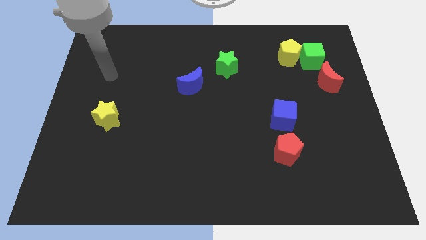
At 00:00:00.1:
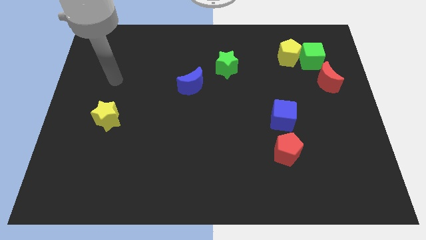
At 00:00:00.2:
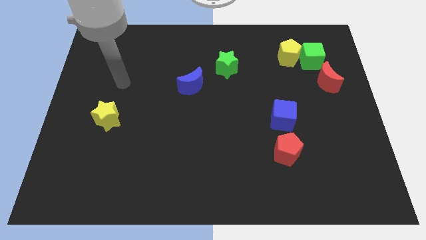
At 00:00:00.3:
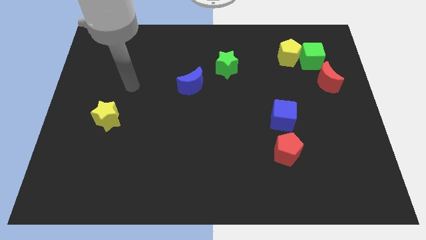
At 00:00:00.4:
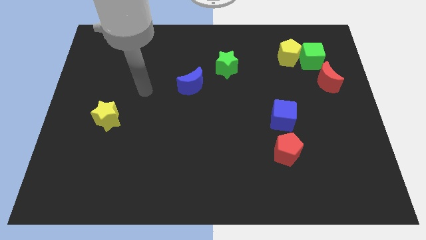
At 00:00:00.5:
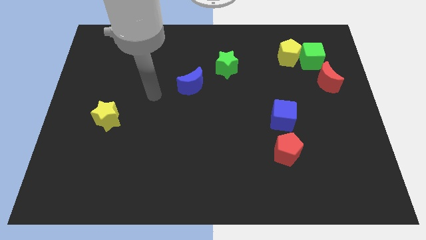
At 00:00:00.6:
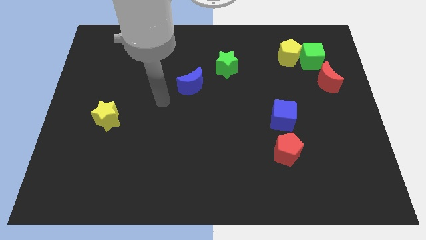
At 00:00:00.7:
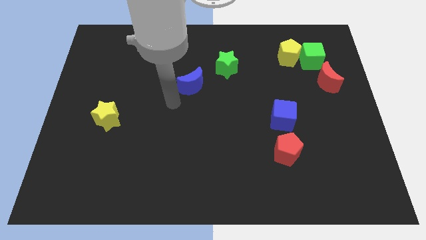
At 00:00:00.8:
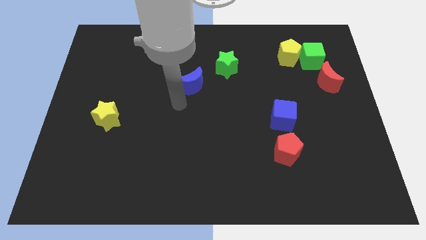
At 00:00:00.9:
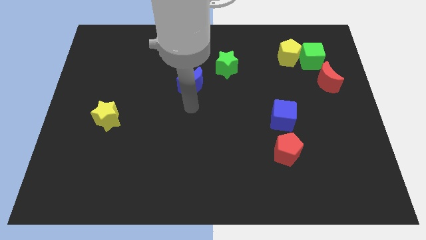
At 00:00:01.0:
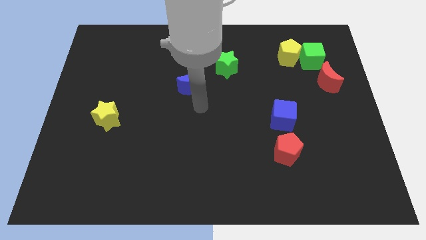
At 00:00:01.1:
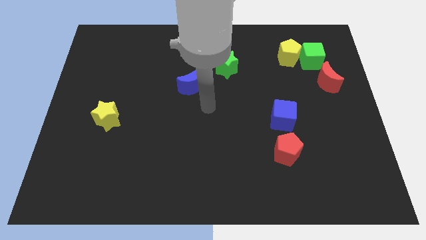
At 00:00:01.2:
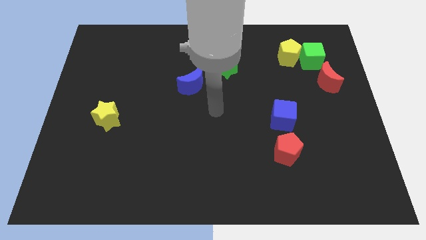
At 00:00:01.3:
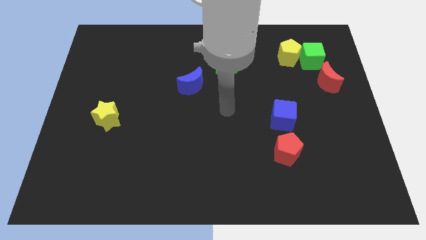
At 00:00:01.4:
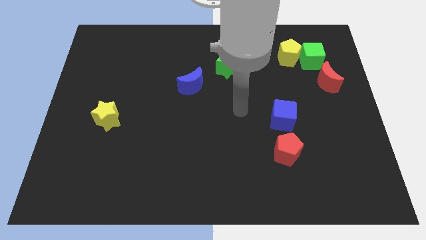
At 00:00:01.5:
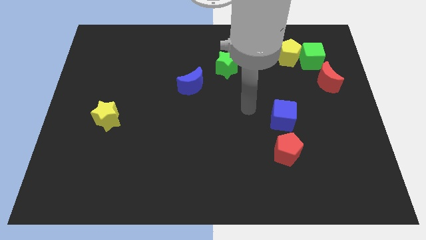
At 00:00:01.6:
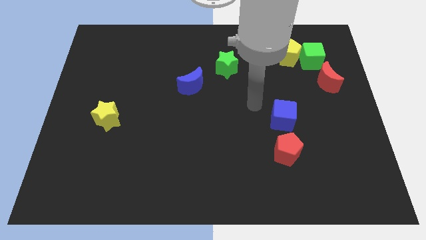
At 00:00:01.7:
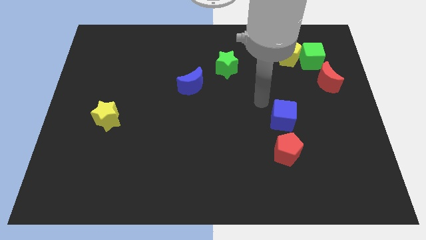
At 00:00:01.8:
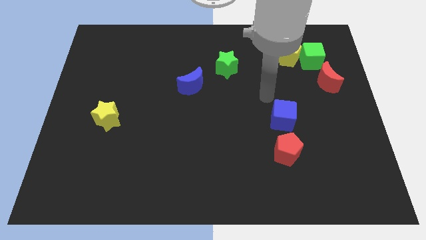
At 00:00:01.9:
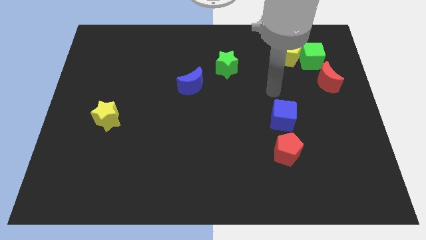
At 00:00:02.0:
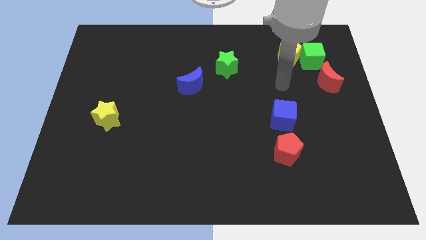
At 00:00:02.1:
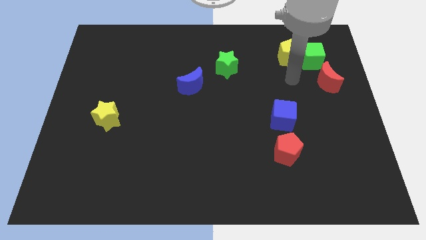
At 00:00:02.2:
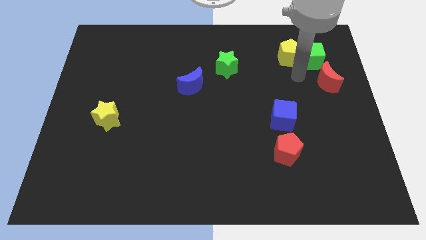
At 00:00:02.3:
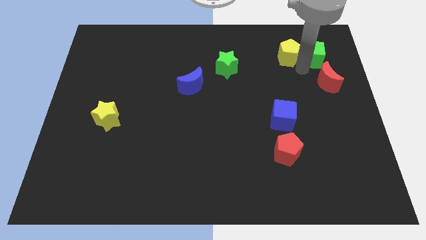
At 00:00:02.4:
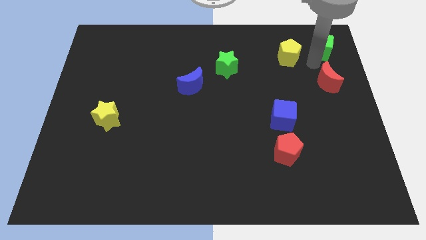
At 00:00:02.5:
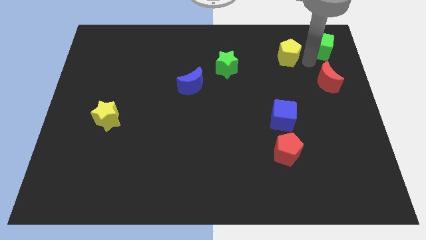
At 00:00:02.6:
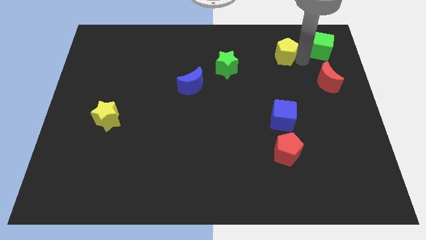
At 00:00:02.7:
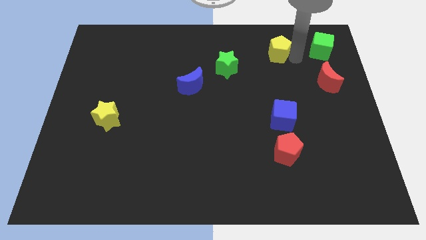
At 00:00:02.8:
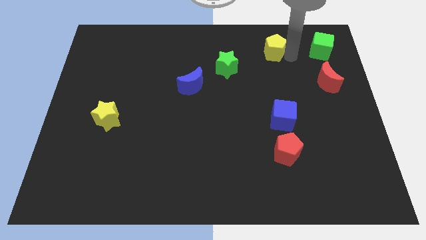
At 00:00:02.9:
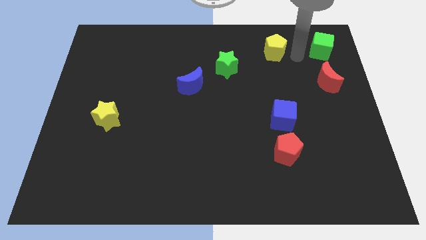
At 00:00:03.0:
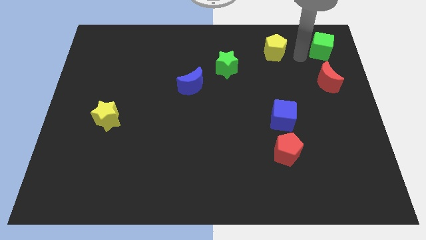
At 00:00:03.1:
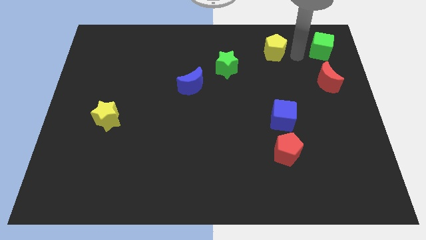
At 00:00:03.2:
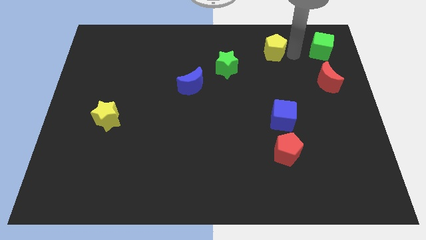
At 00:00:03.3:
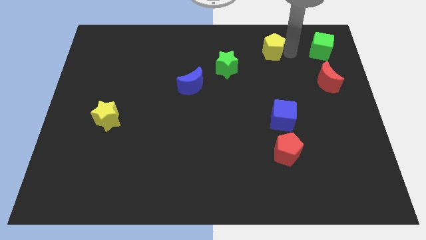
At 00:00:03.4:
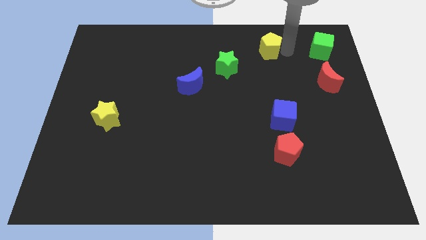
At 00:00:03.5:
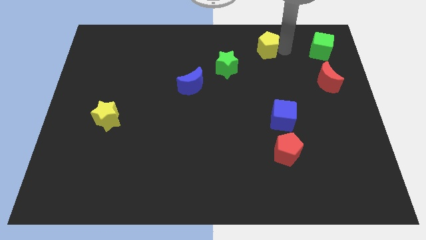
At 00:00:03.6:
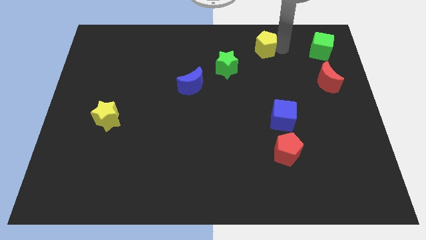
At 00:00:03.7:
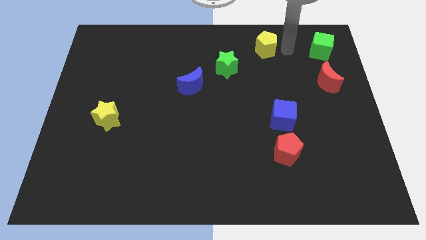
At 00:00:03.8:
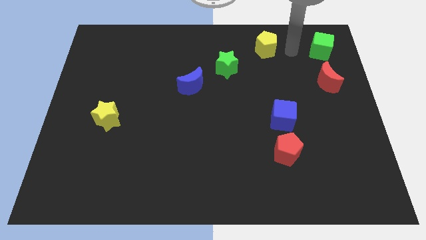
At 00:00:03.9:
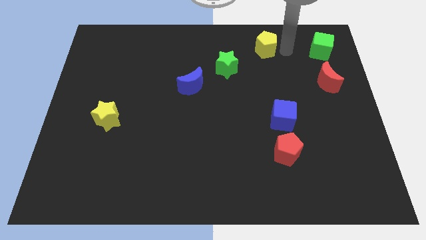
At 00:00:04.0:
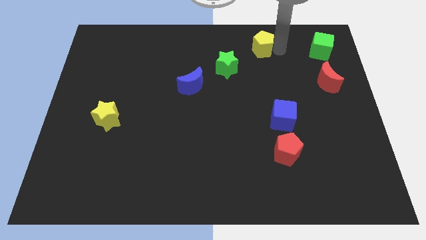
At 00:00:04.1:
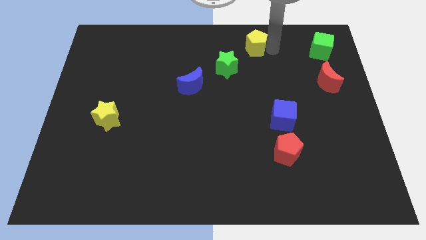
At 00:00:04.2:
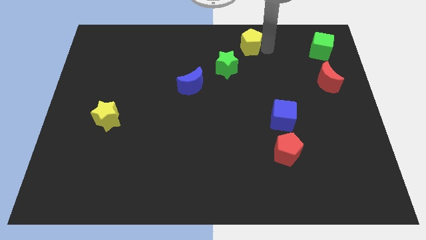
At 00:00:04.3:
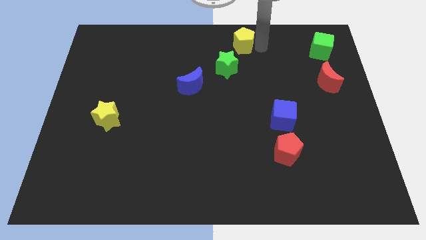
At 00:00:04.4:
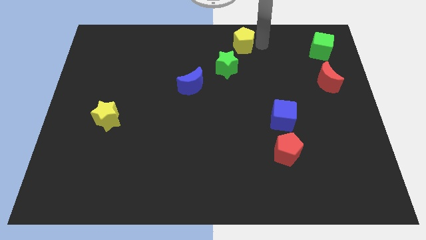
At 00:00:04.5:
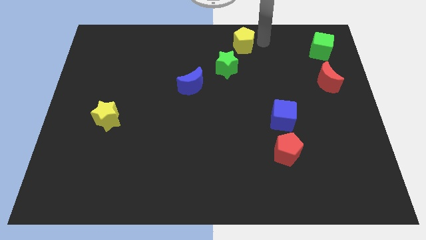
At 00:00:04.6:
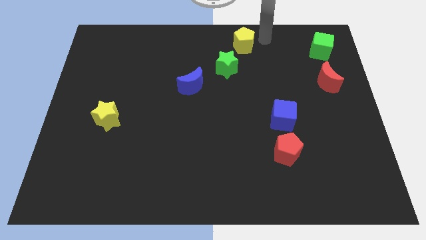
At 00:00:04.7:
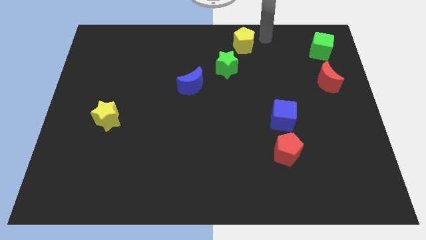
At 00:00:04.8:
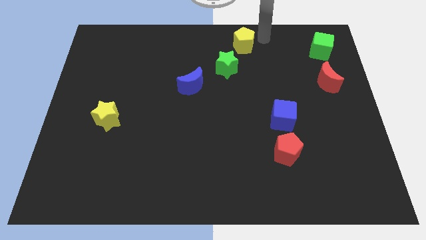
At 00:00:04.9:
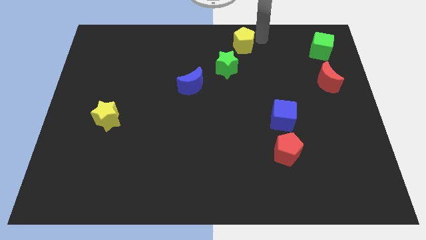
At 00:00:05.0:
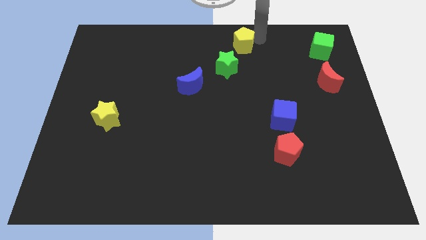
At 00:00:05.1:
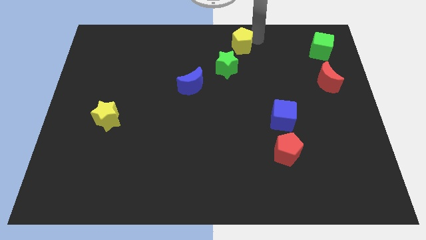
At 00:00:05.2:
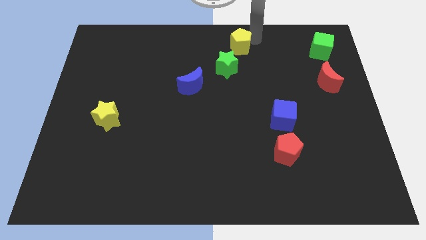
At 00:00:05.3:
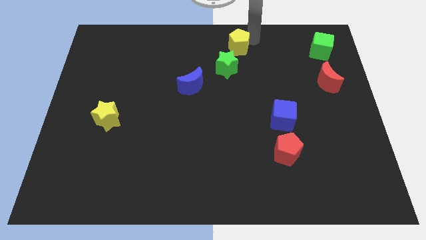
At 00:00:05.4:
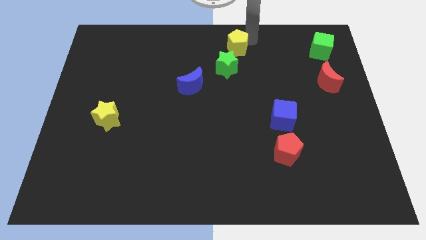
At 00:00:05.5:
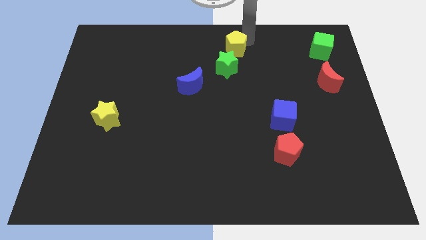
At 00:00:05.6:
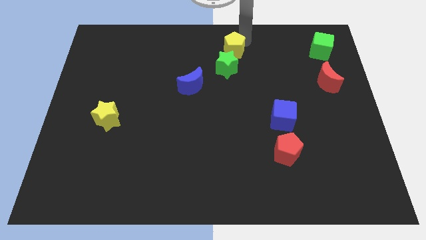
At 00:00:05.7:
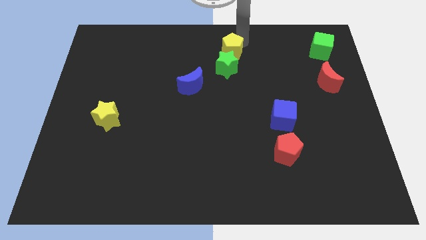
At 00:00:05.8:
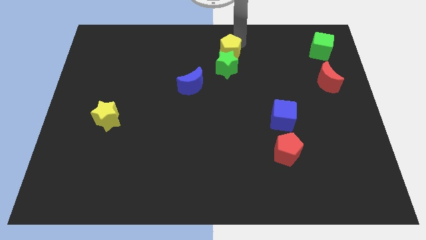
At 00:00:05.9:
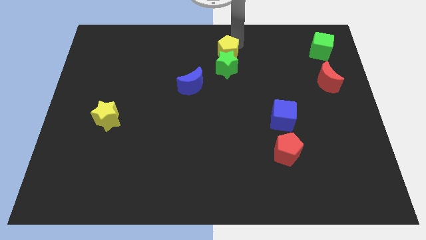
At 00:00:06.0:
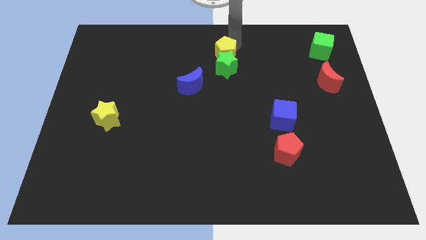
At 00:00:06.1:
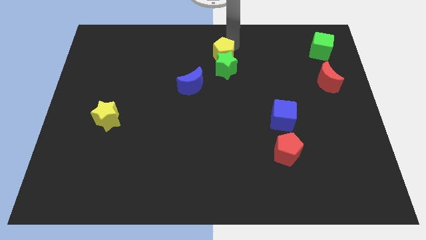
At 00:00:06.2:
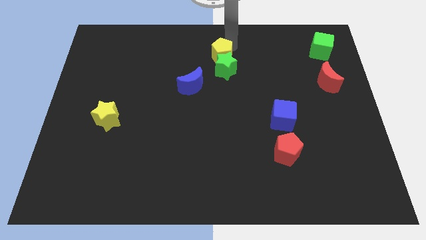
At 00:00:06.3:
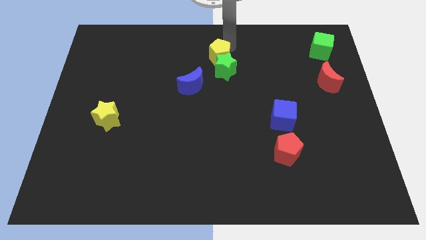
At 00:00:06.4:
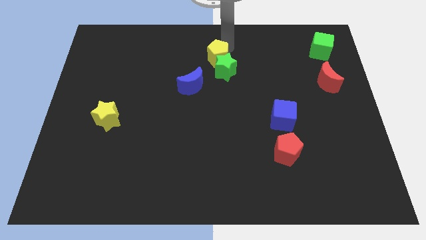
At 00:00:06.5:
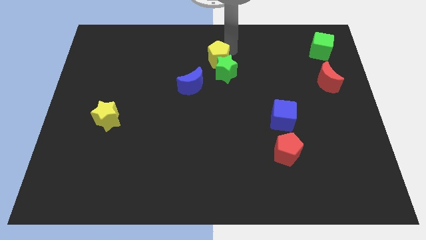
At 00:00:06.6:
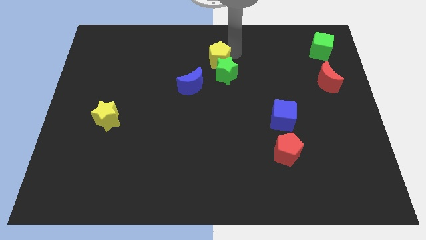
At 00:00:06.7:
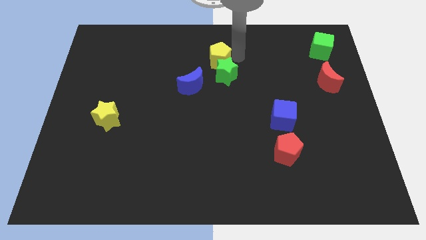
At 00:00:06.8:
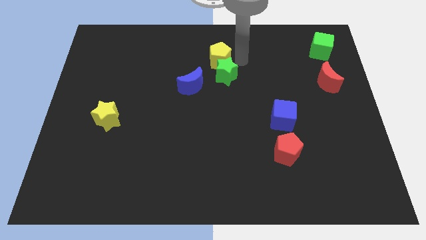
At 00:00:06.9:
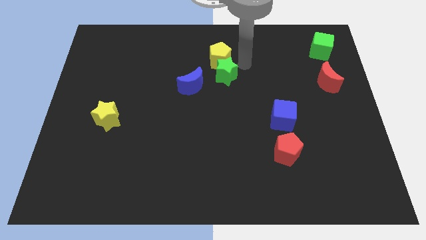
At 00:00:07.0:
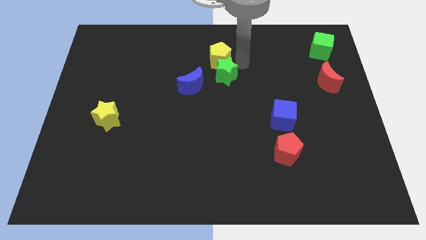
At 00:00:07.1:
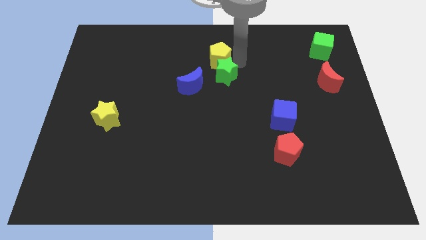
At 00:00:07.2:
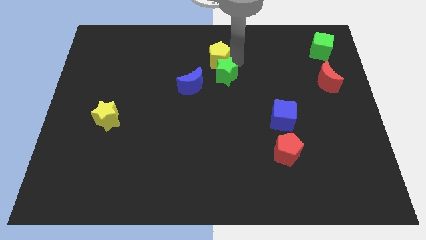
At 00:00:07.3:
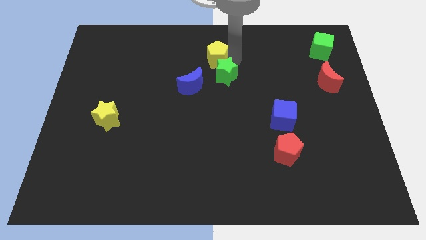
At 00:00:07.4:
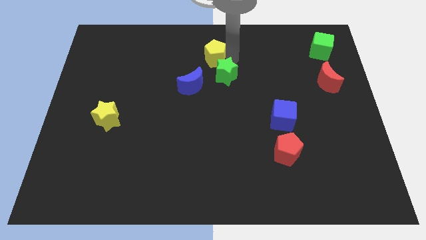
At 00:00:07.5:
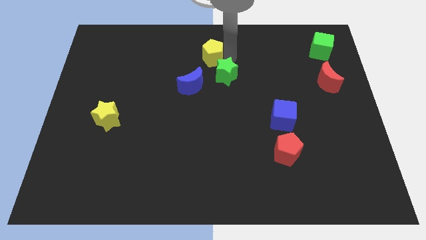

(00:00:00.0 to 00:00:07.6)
slide the yellow pentagon left

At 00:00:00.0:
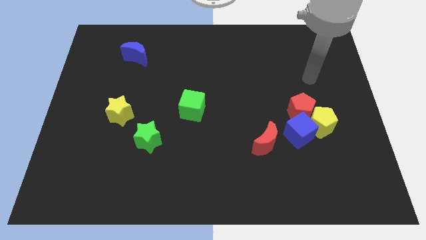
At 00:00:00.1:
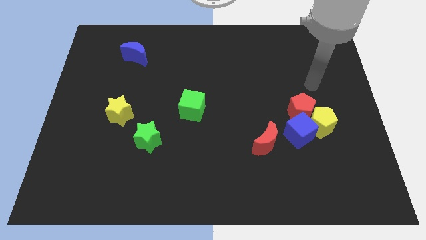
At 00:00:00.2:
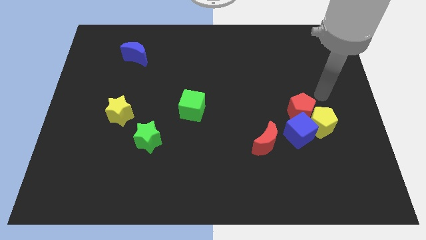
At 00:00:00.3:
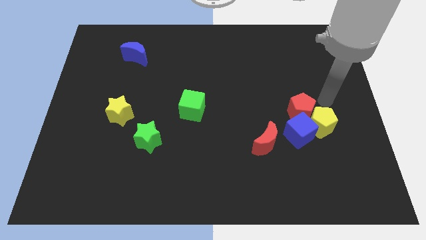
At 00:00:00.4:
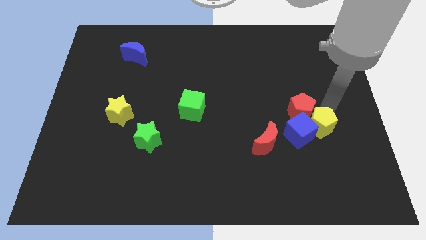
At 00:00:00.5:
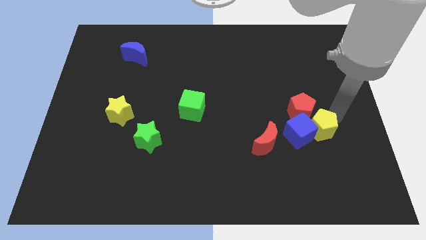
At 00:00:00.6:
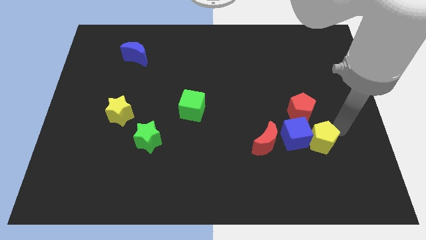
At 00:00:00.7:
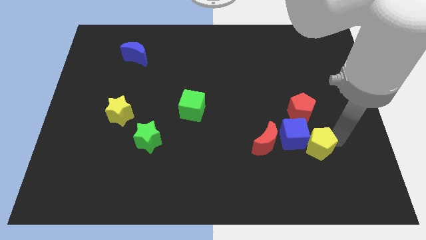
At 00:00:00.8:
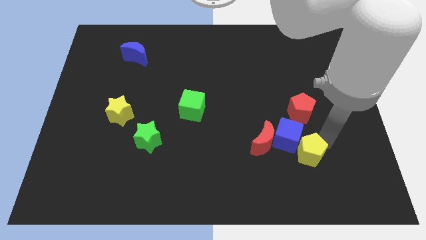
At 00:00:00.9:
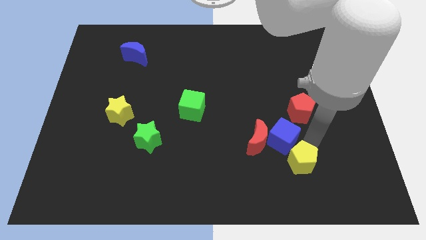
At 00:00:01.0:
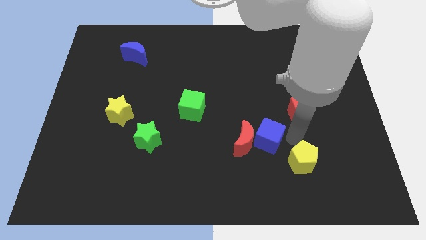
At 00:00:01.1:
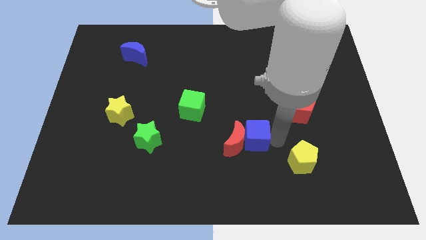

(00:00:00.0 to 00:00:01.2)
push the red moon left somewhat
